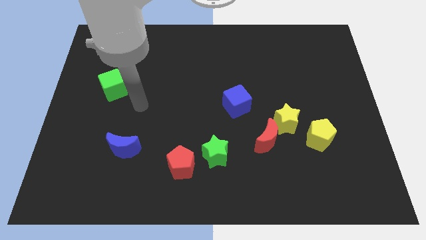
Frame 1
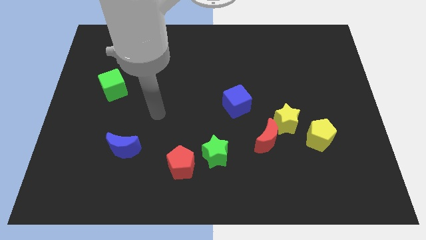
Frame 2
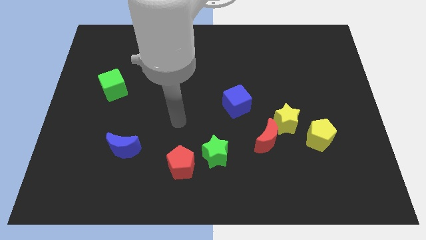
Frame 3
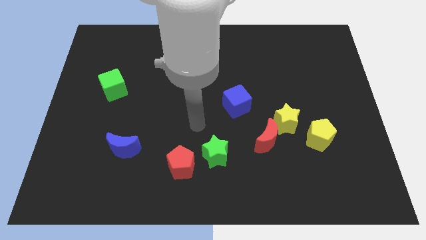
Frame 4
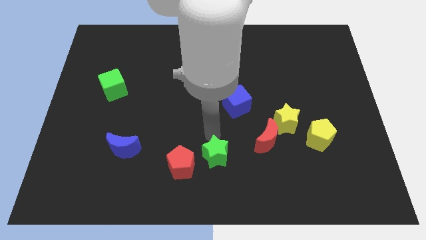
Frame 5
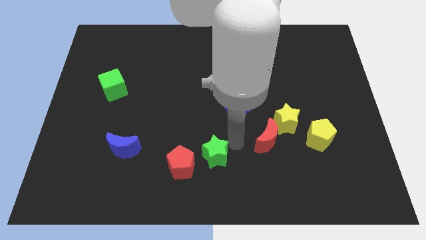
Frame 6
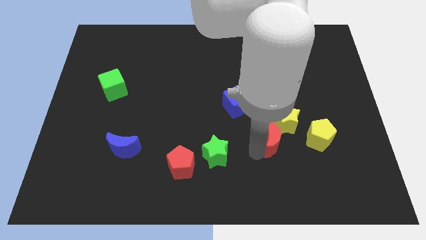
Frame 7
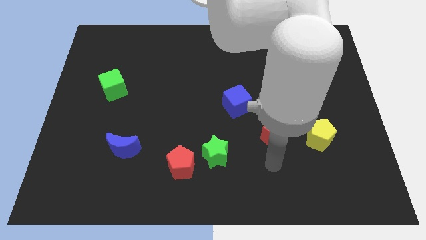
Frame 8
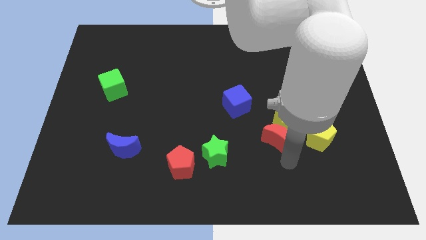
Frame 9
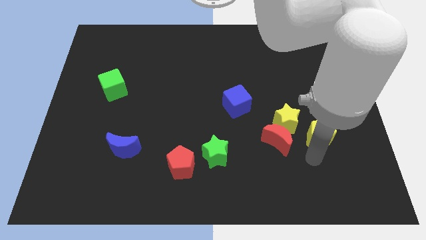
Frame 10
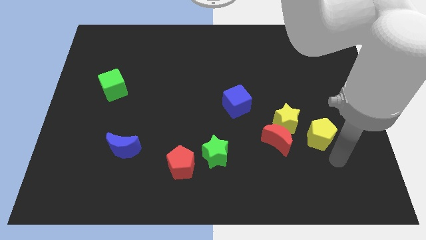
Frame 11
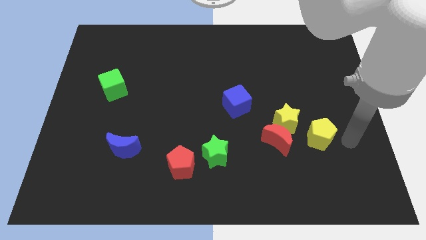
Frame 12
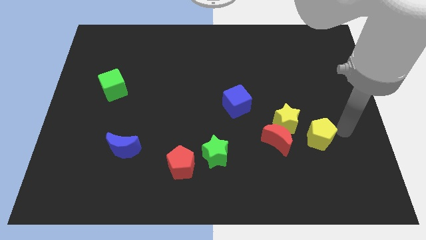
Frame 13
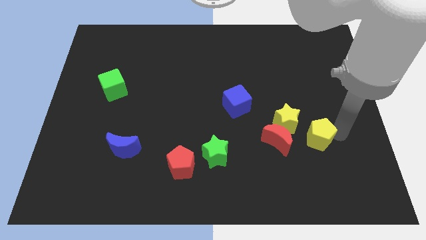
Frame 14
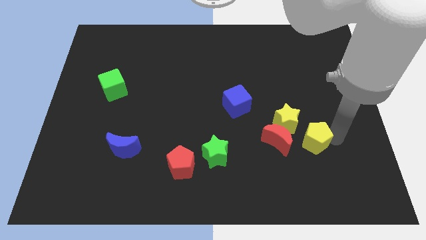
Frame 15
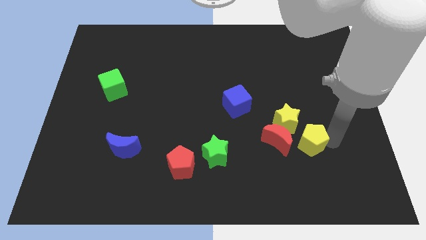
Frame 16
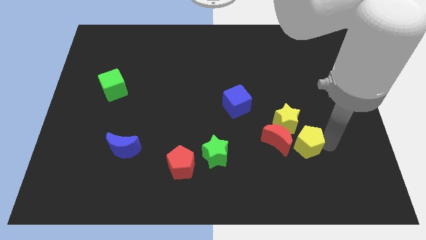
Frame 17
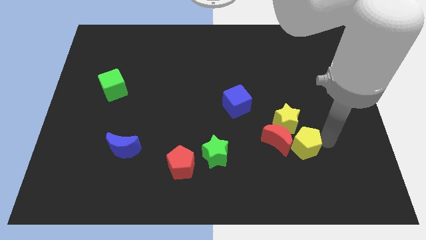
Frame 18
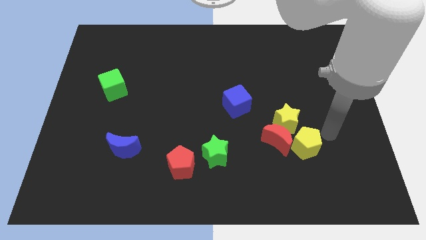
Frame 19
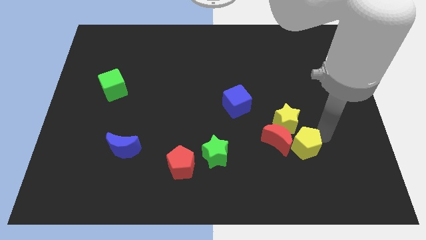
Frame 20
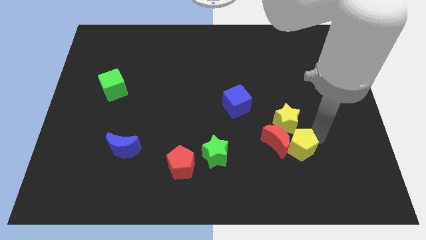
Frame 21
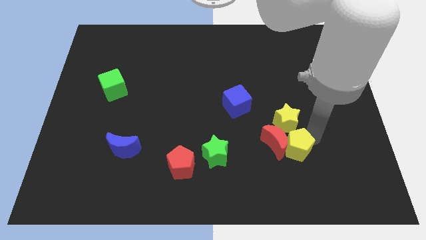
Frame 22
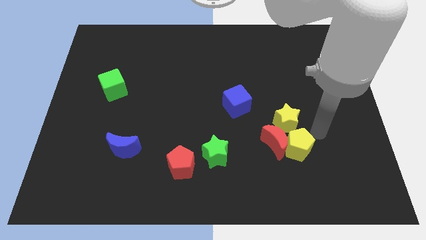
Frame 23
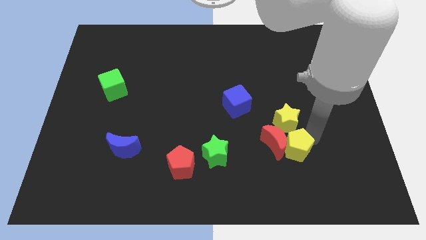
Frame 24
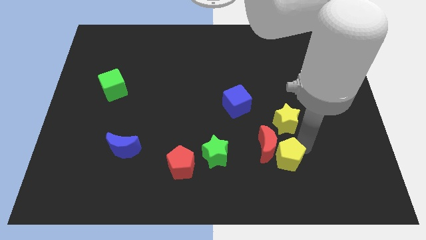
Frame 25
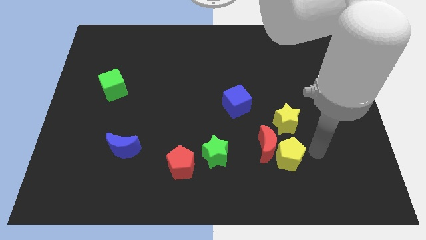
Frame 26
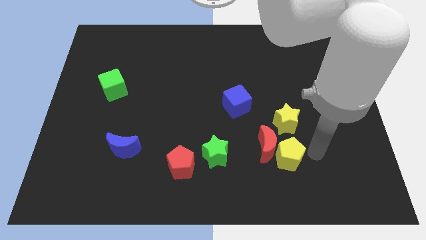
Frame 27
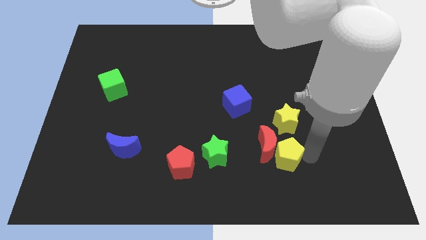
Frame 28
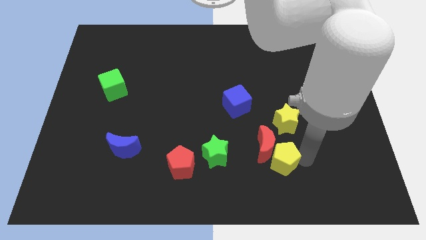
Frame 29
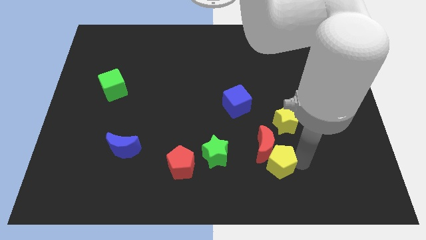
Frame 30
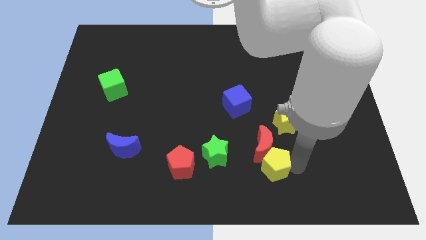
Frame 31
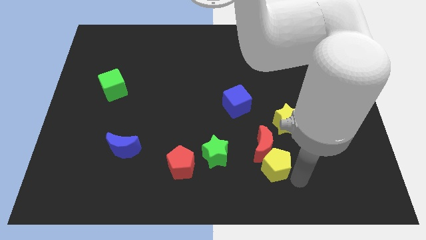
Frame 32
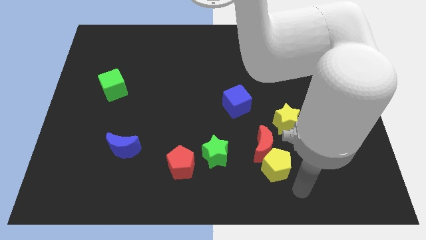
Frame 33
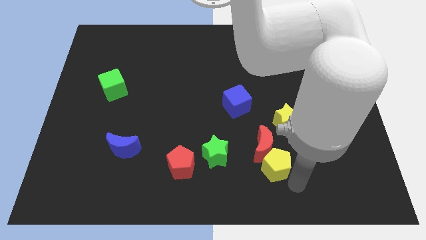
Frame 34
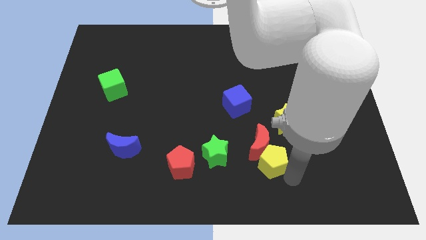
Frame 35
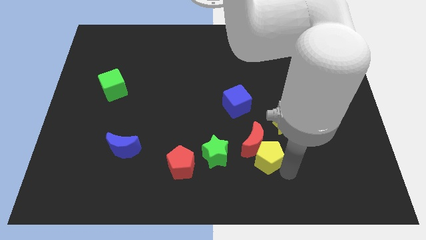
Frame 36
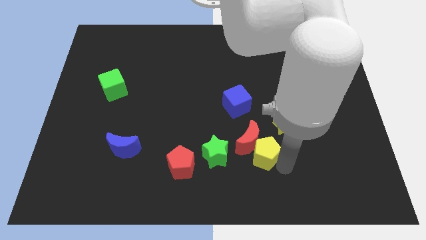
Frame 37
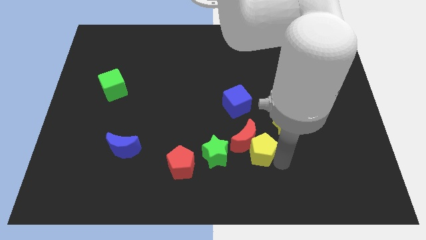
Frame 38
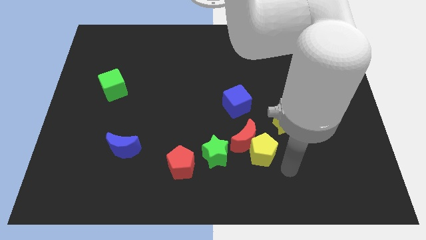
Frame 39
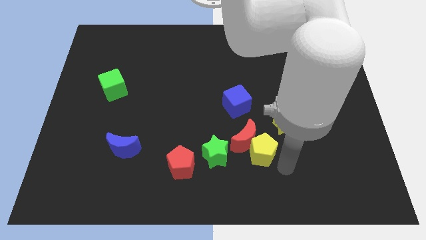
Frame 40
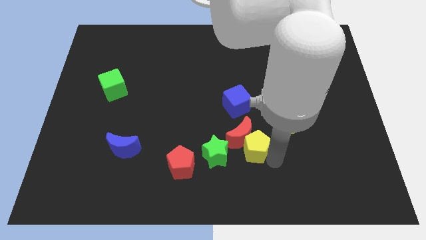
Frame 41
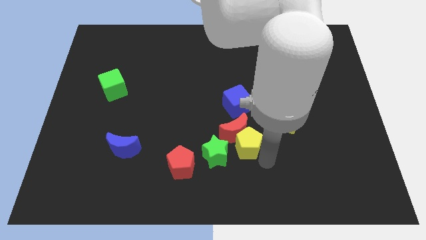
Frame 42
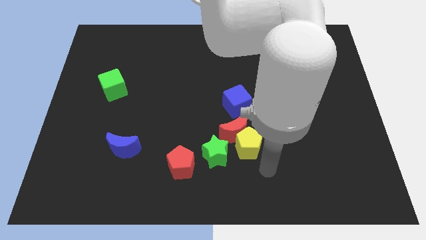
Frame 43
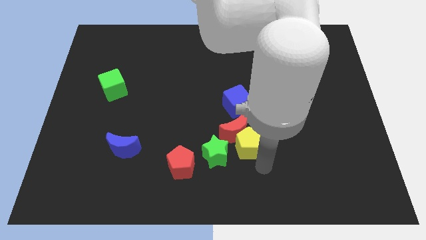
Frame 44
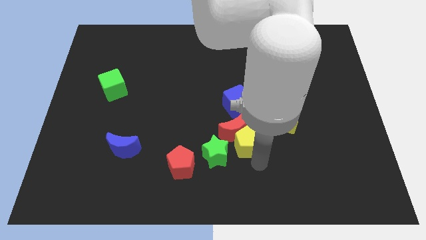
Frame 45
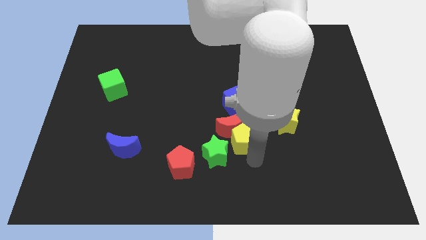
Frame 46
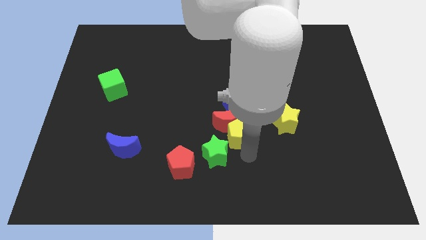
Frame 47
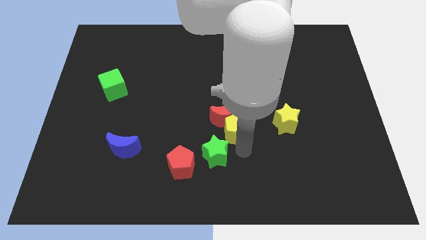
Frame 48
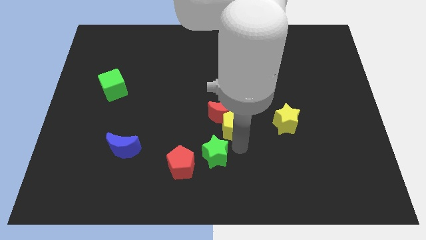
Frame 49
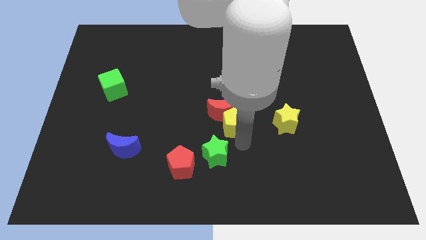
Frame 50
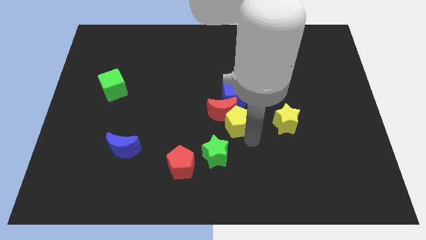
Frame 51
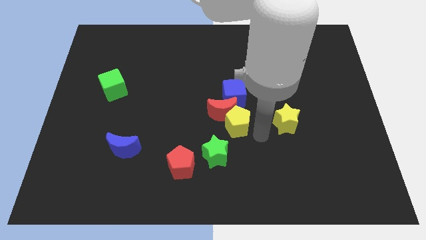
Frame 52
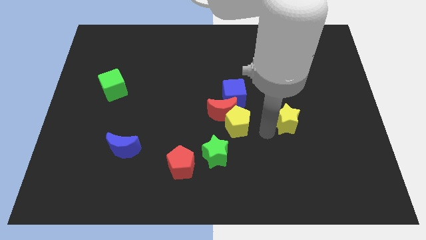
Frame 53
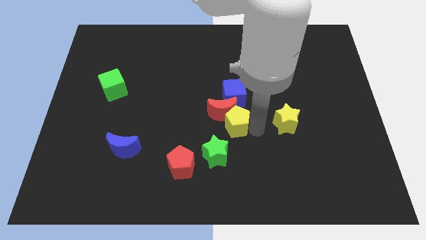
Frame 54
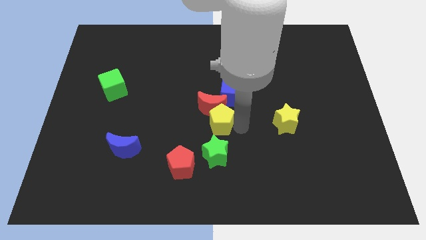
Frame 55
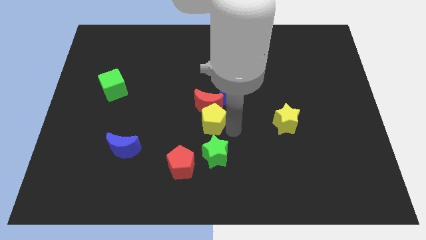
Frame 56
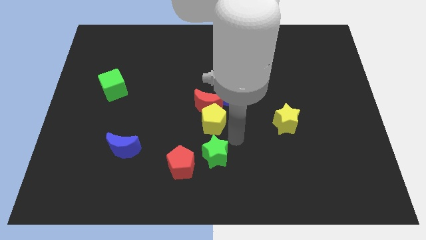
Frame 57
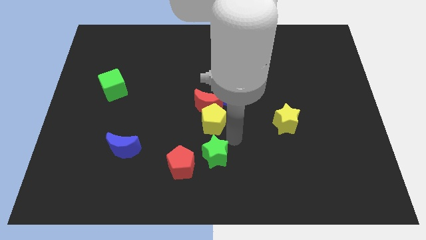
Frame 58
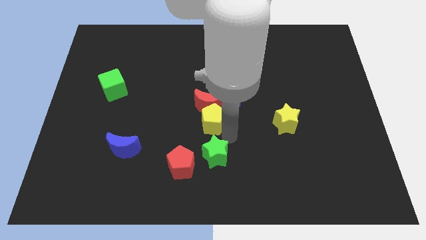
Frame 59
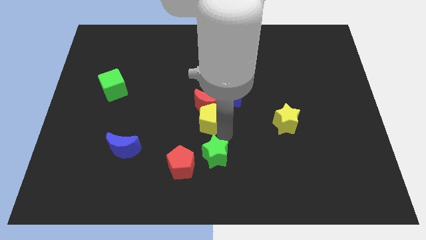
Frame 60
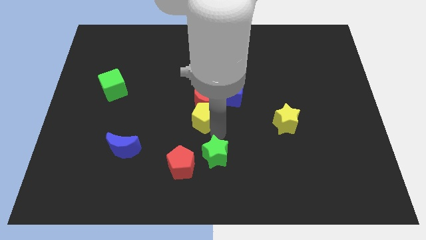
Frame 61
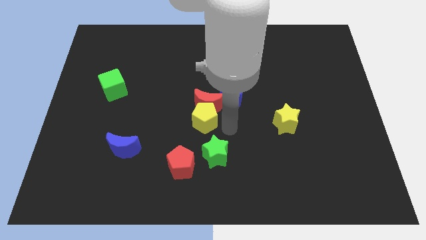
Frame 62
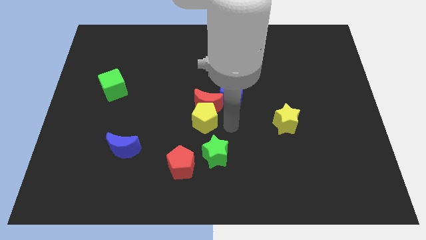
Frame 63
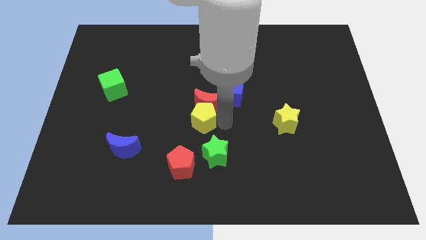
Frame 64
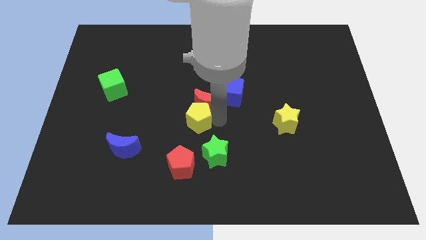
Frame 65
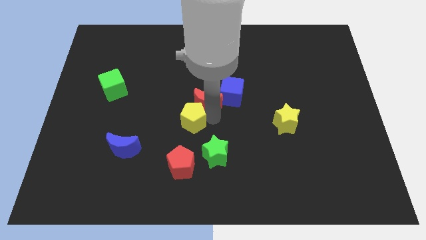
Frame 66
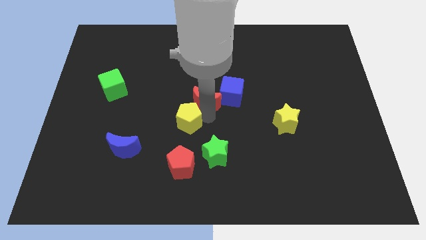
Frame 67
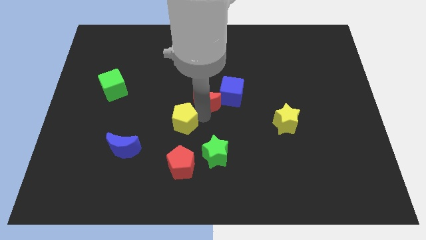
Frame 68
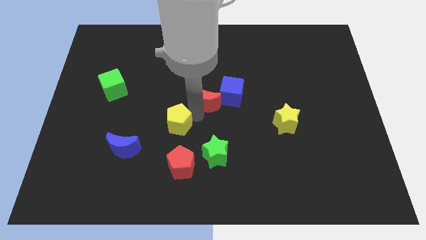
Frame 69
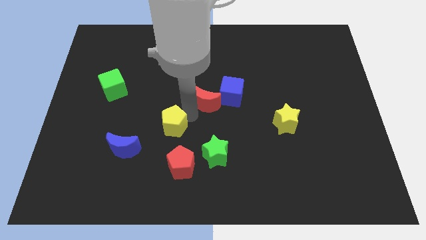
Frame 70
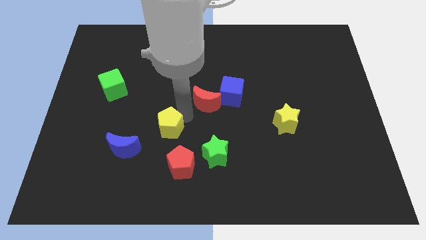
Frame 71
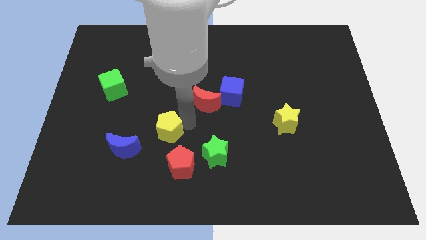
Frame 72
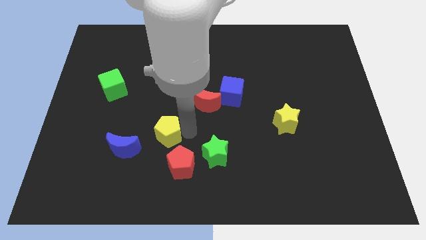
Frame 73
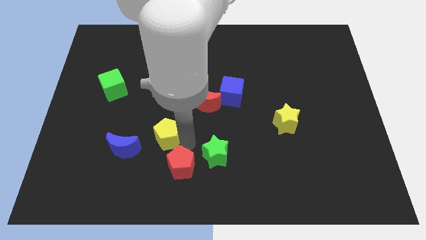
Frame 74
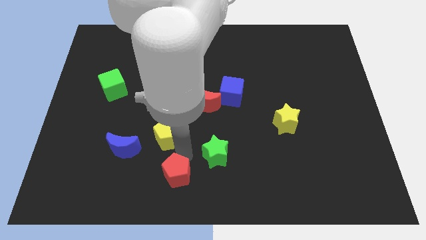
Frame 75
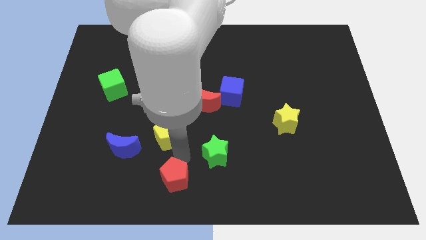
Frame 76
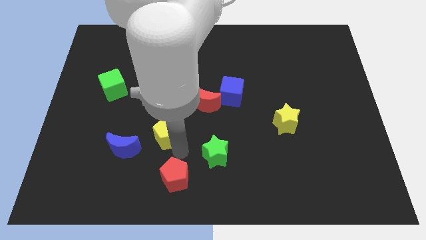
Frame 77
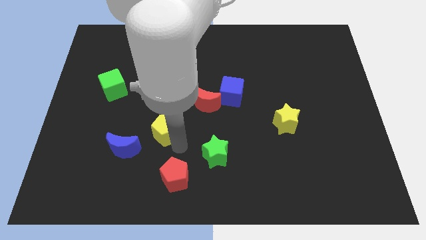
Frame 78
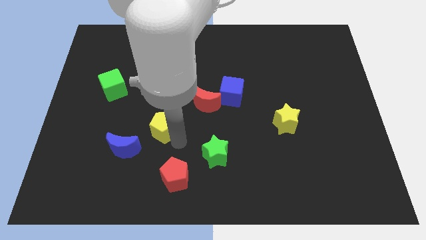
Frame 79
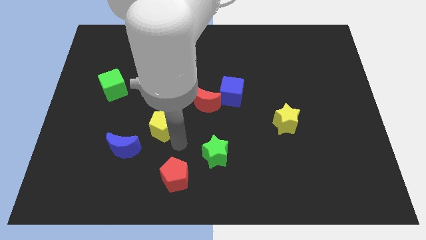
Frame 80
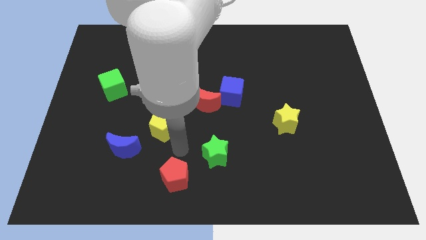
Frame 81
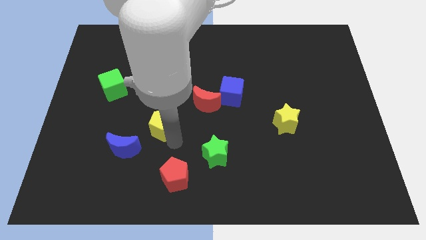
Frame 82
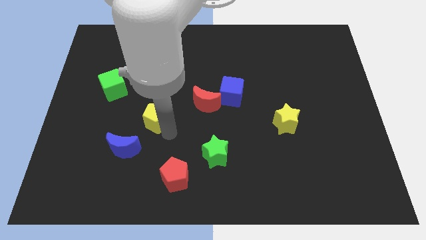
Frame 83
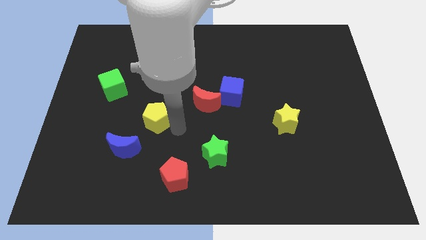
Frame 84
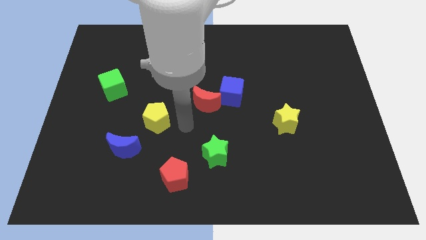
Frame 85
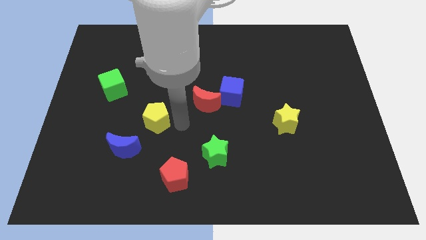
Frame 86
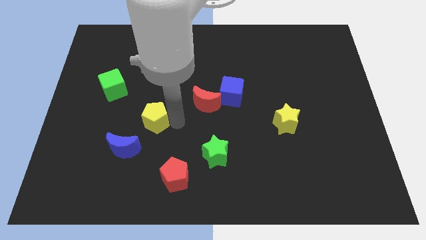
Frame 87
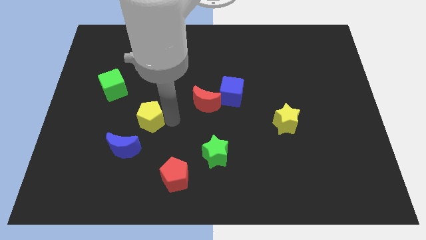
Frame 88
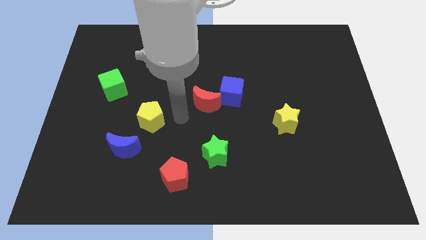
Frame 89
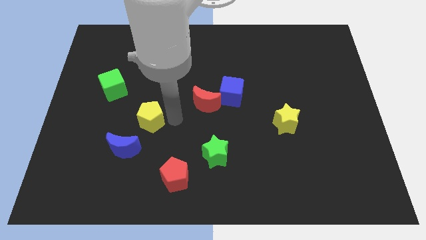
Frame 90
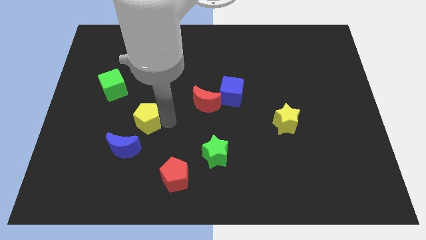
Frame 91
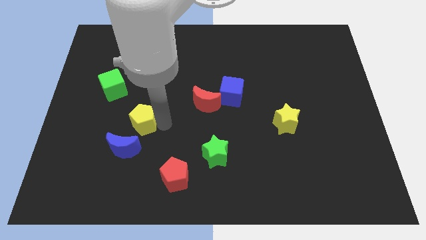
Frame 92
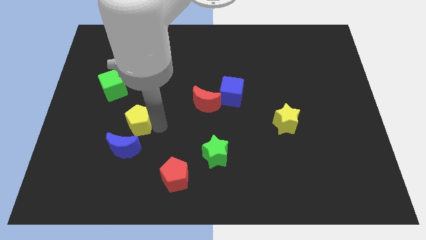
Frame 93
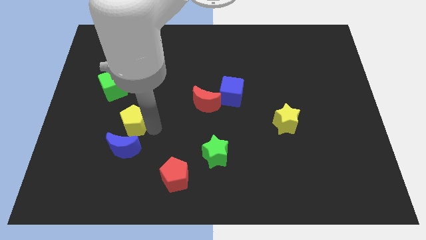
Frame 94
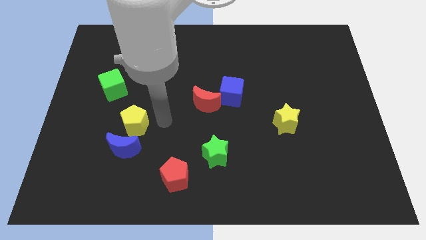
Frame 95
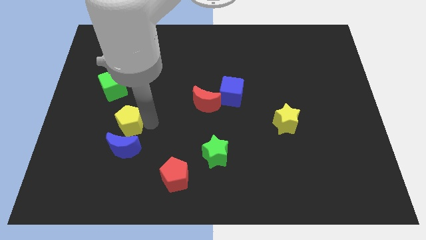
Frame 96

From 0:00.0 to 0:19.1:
push the yellow pentagon to the top left side of the blue moon
